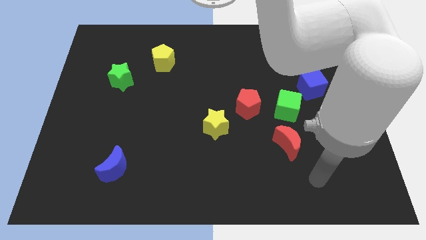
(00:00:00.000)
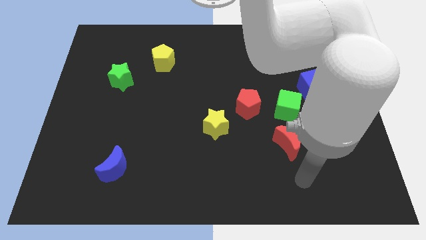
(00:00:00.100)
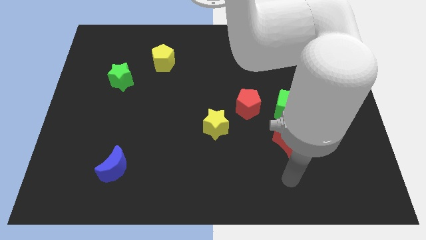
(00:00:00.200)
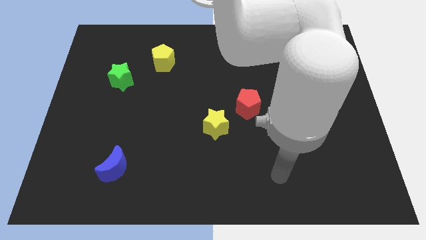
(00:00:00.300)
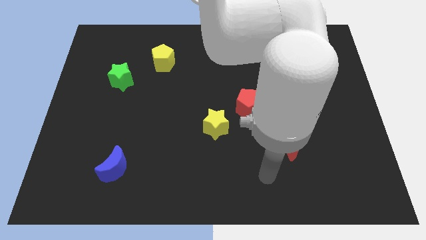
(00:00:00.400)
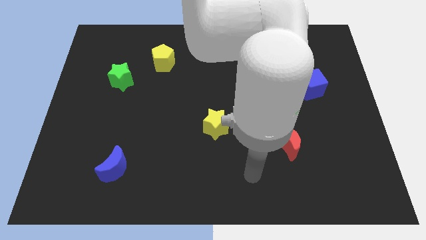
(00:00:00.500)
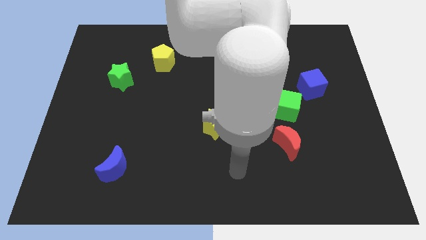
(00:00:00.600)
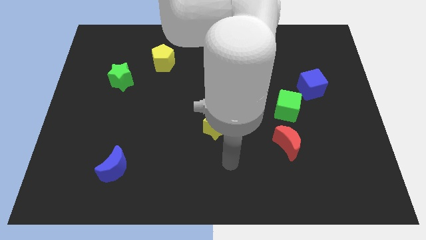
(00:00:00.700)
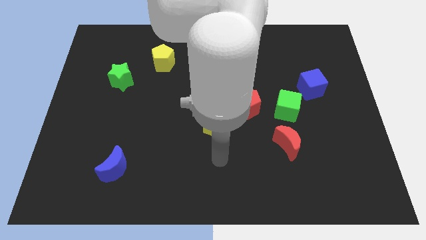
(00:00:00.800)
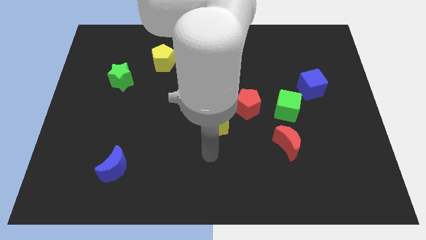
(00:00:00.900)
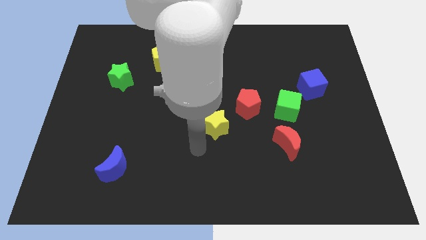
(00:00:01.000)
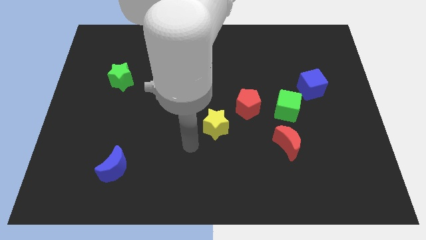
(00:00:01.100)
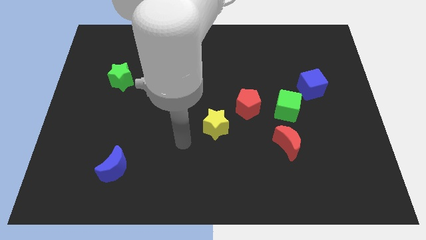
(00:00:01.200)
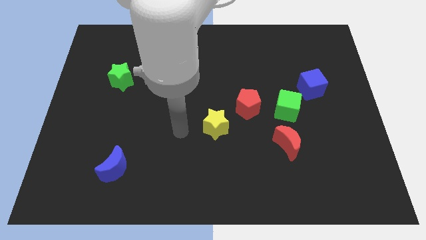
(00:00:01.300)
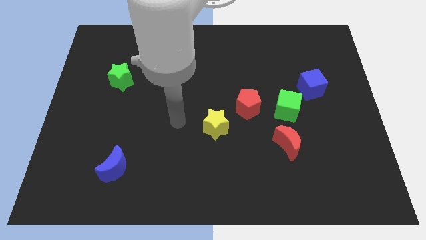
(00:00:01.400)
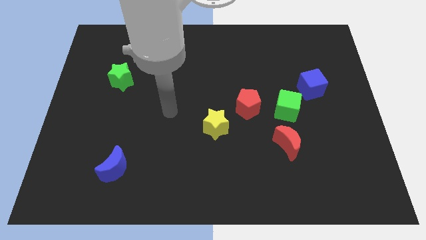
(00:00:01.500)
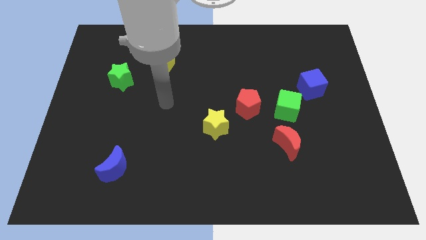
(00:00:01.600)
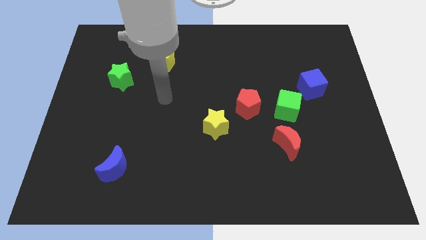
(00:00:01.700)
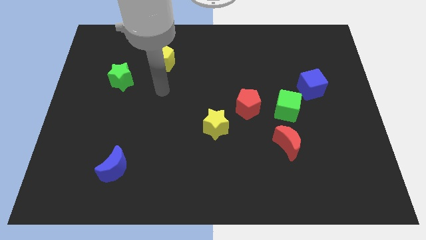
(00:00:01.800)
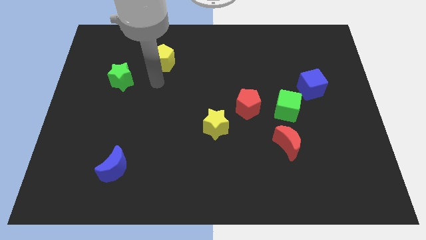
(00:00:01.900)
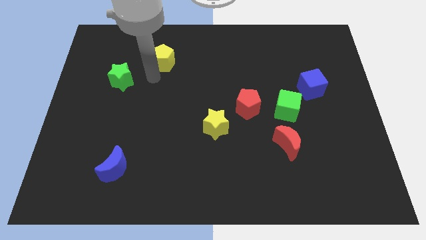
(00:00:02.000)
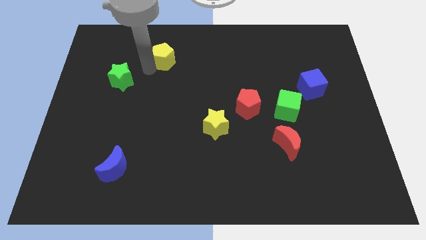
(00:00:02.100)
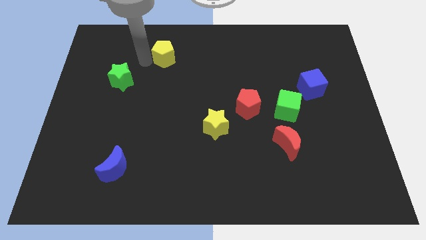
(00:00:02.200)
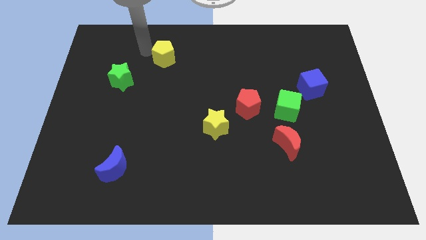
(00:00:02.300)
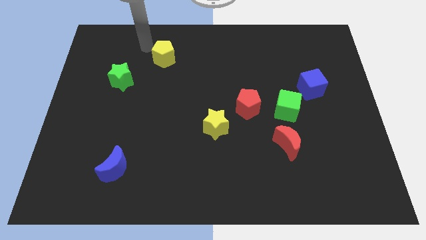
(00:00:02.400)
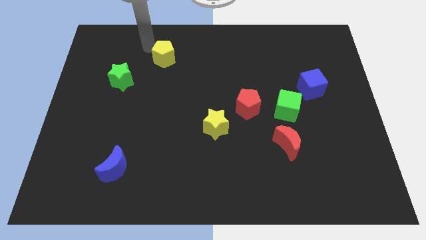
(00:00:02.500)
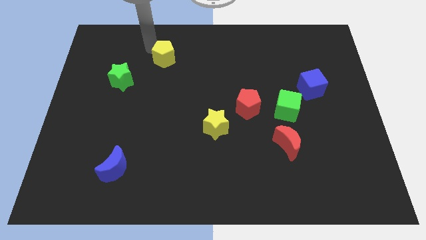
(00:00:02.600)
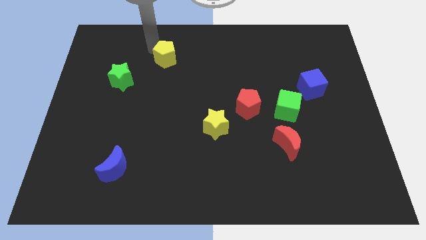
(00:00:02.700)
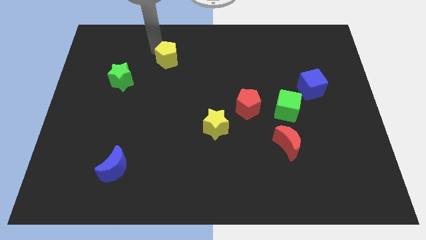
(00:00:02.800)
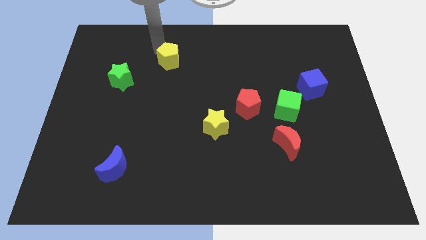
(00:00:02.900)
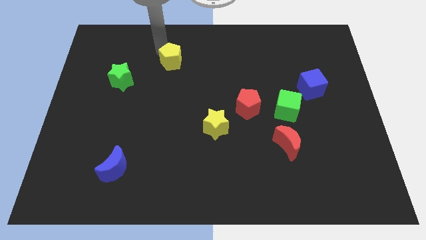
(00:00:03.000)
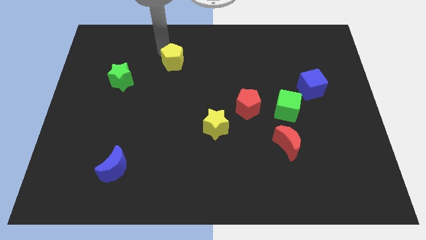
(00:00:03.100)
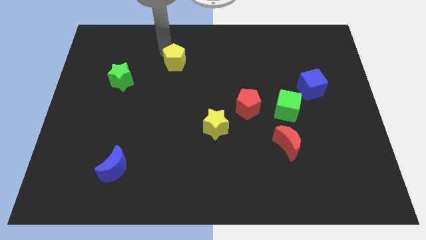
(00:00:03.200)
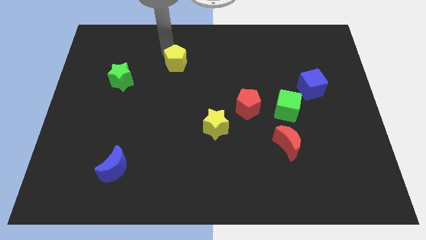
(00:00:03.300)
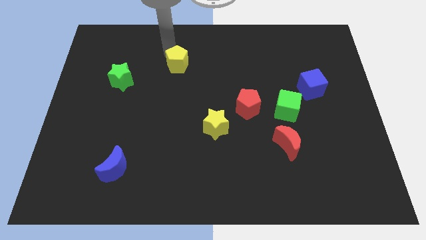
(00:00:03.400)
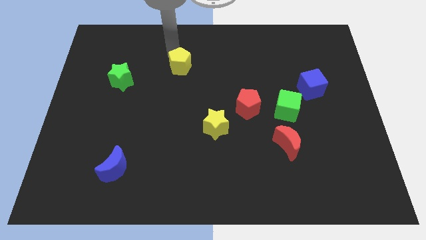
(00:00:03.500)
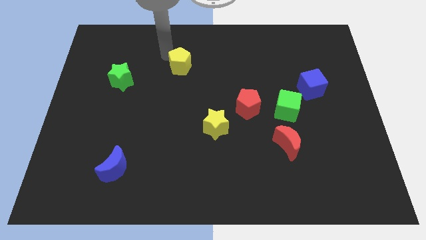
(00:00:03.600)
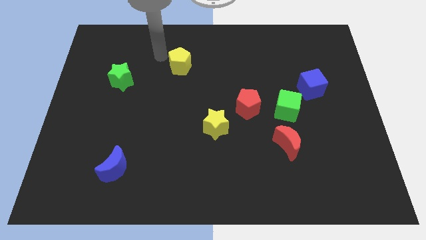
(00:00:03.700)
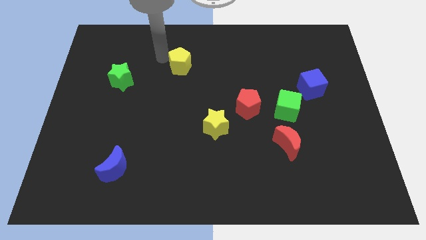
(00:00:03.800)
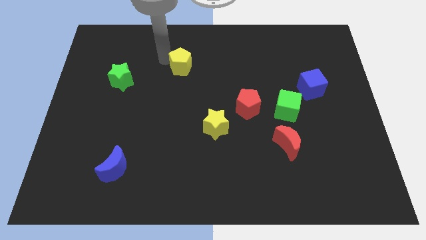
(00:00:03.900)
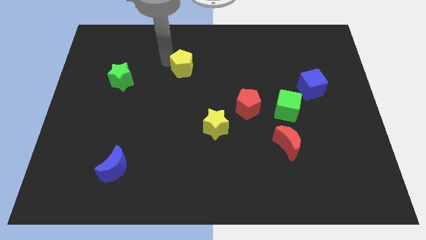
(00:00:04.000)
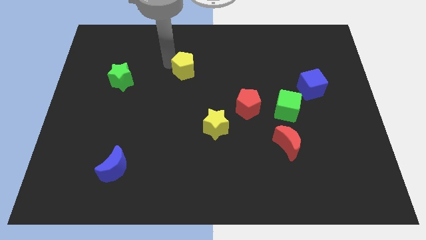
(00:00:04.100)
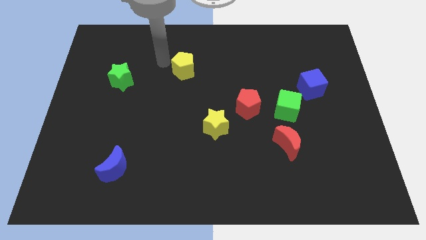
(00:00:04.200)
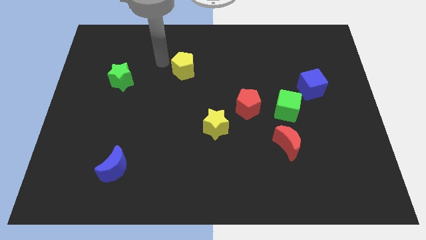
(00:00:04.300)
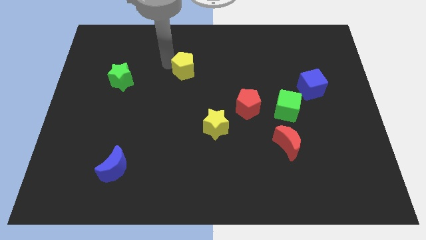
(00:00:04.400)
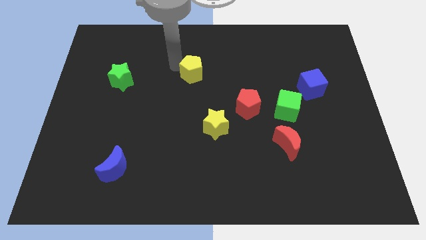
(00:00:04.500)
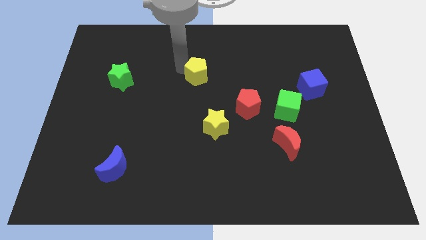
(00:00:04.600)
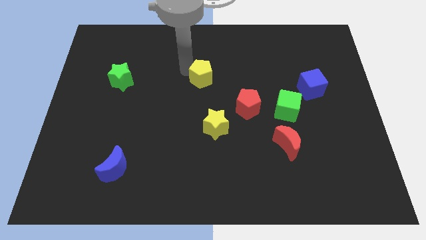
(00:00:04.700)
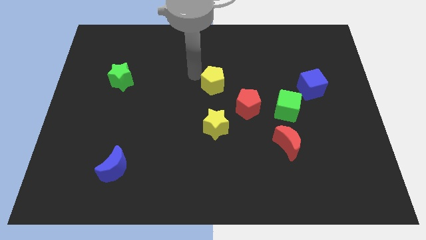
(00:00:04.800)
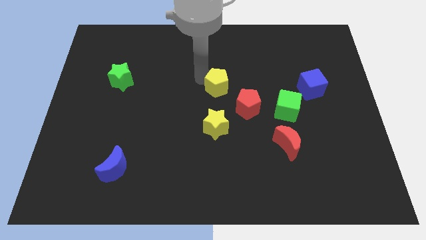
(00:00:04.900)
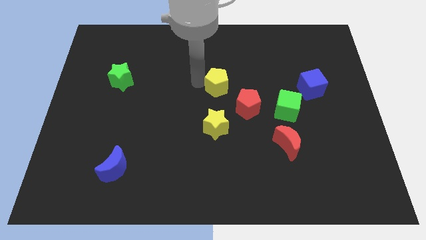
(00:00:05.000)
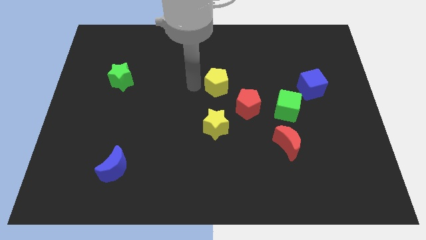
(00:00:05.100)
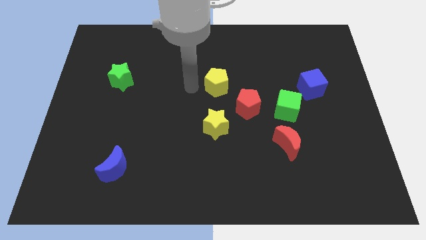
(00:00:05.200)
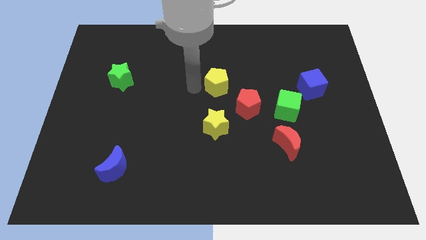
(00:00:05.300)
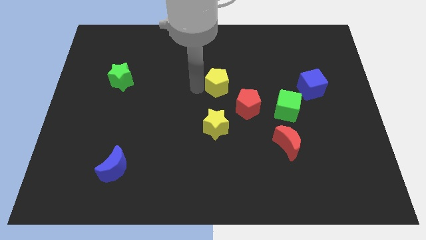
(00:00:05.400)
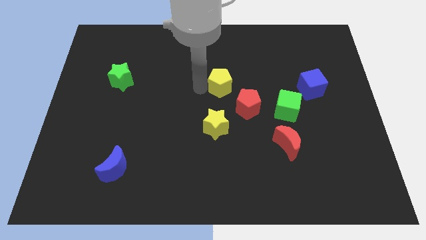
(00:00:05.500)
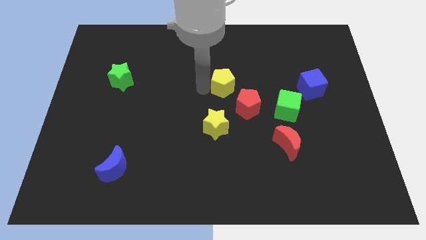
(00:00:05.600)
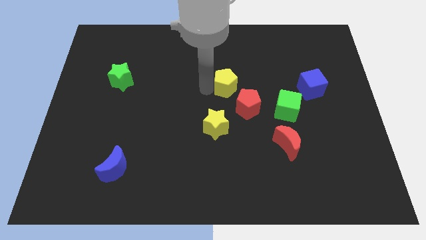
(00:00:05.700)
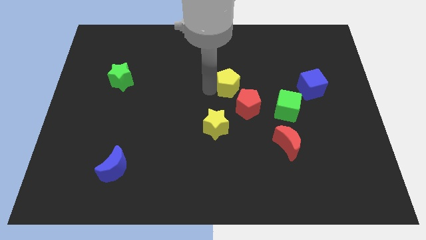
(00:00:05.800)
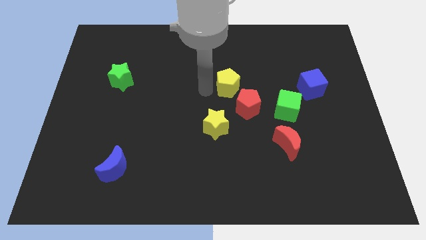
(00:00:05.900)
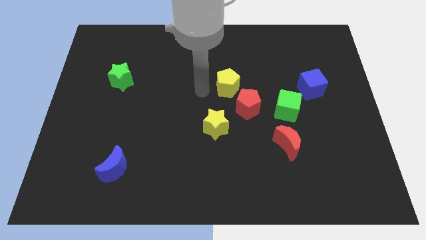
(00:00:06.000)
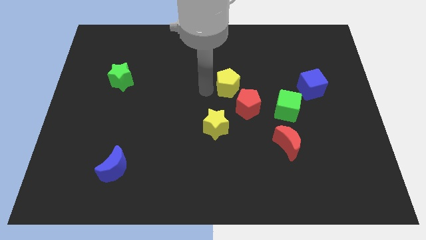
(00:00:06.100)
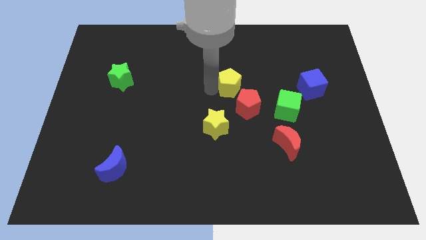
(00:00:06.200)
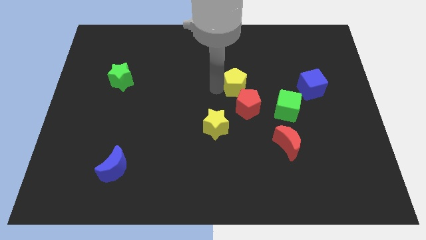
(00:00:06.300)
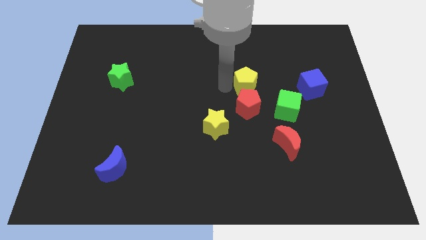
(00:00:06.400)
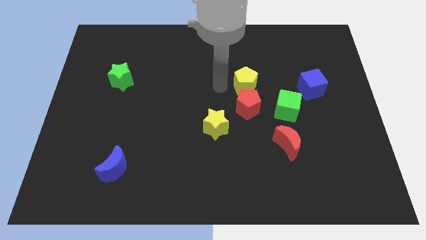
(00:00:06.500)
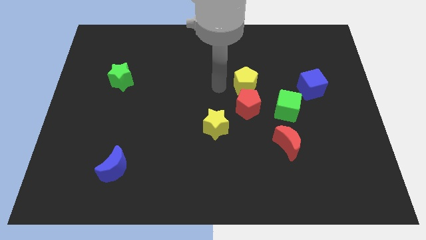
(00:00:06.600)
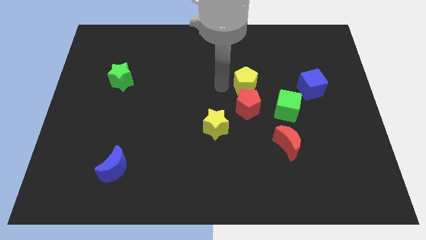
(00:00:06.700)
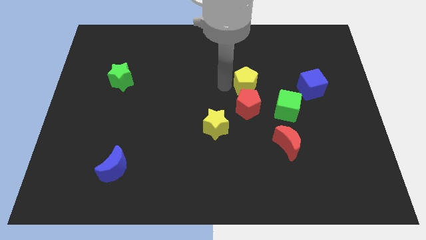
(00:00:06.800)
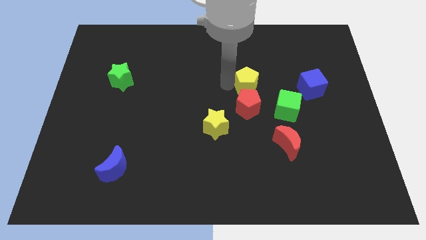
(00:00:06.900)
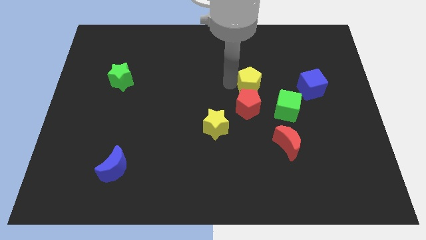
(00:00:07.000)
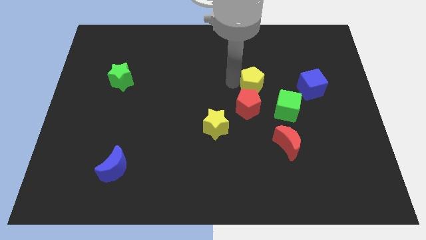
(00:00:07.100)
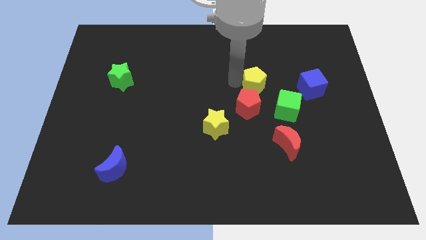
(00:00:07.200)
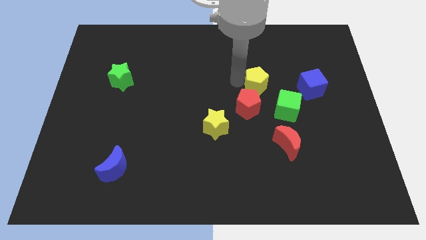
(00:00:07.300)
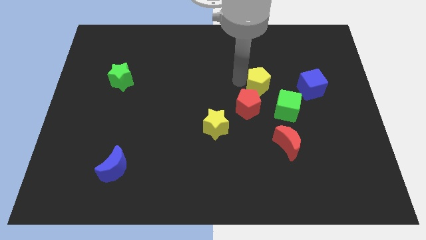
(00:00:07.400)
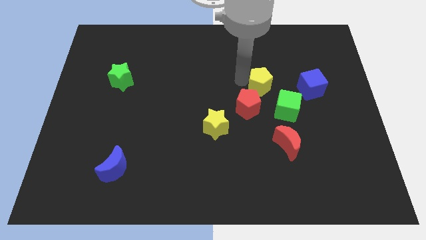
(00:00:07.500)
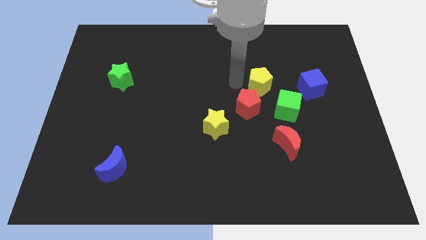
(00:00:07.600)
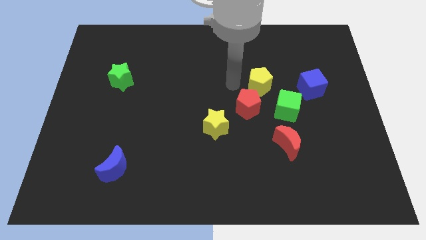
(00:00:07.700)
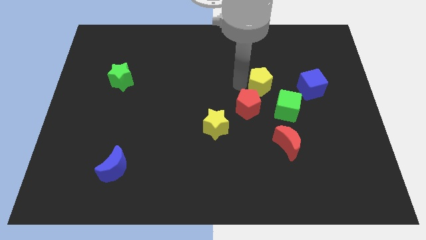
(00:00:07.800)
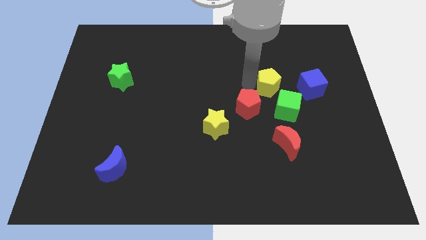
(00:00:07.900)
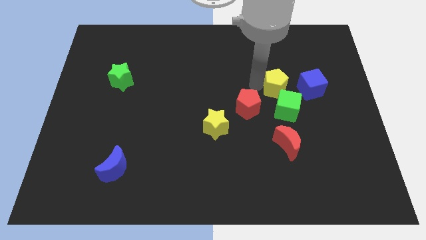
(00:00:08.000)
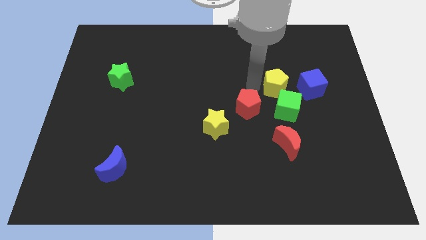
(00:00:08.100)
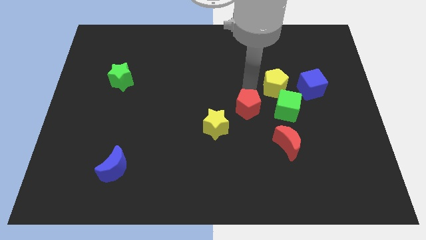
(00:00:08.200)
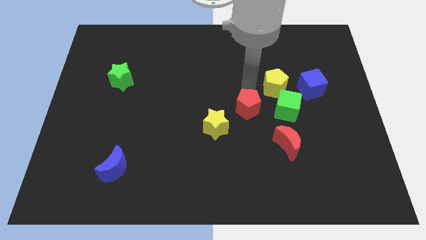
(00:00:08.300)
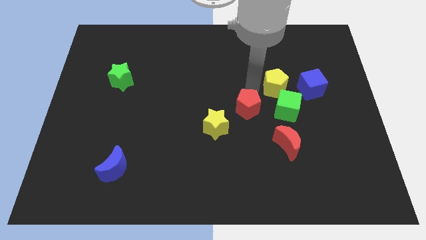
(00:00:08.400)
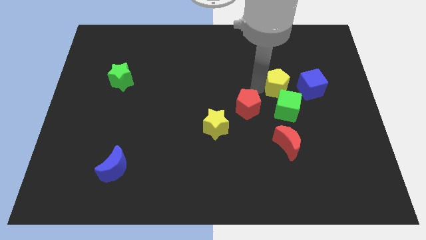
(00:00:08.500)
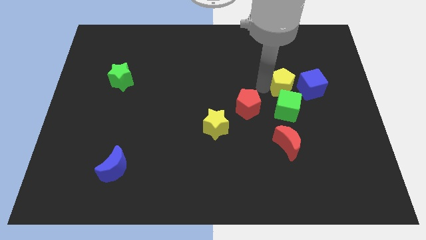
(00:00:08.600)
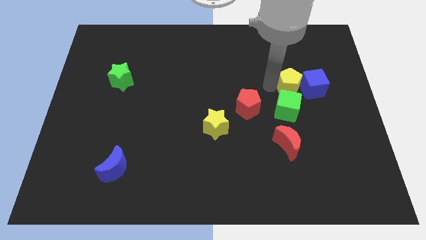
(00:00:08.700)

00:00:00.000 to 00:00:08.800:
put the yellow pentagon close to the blue cube
